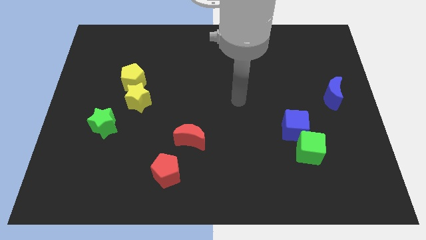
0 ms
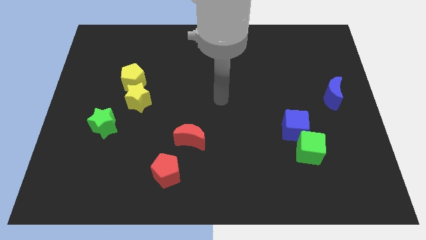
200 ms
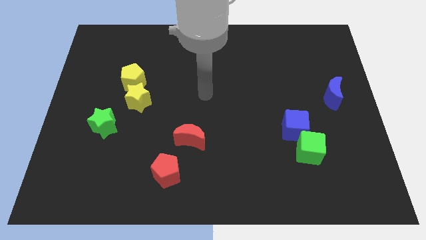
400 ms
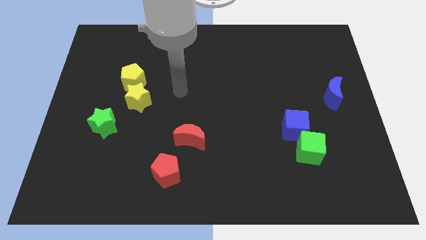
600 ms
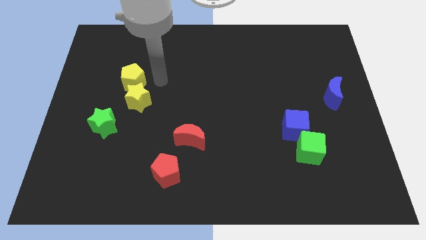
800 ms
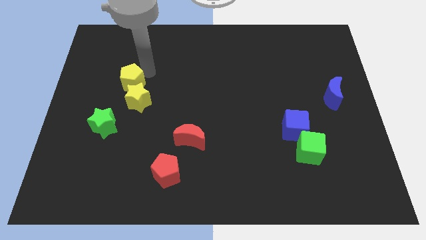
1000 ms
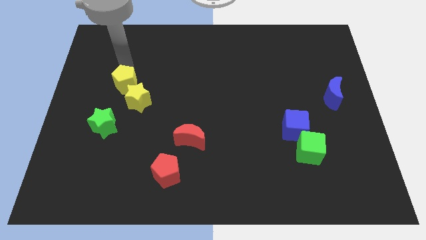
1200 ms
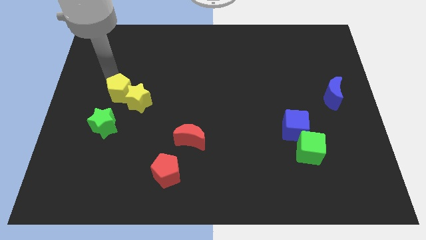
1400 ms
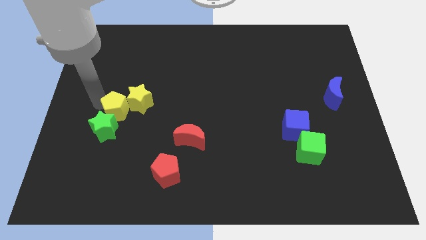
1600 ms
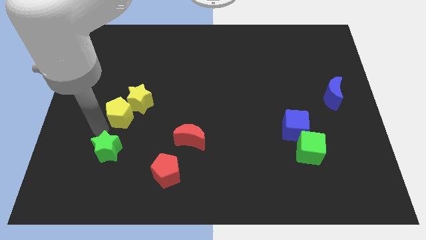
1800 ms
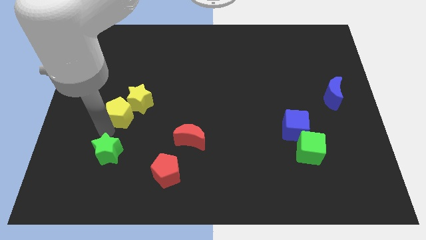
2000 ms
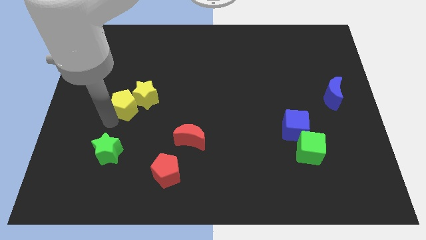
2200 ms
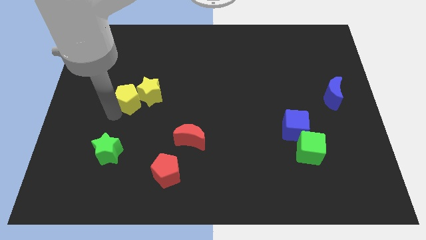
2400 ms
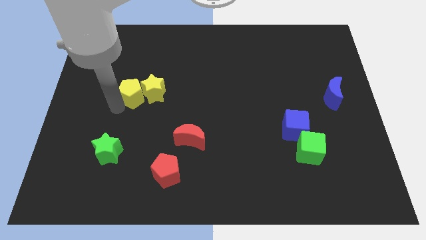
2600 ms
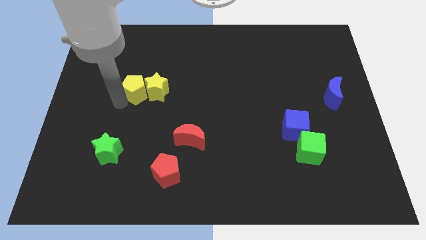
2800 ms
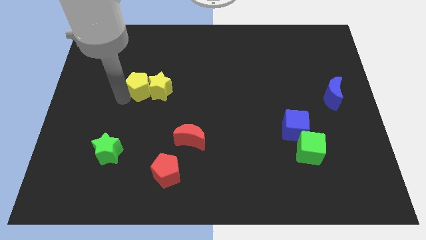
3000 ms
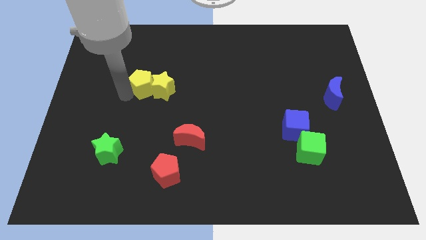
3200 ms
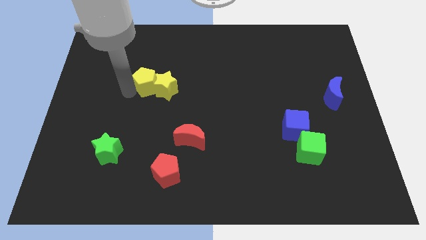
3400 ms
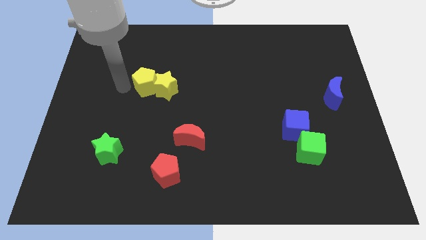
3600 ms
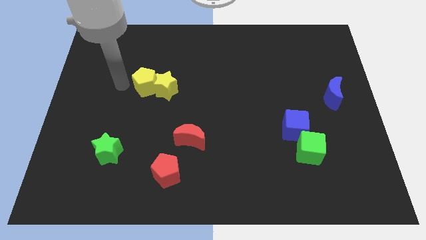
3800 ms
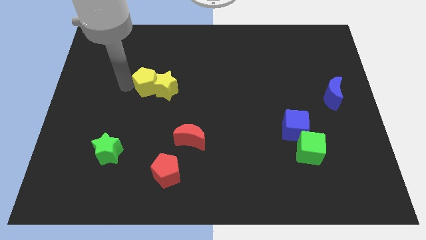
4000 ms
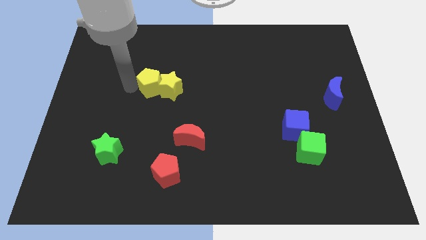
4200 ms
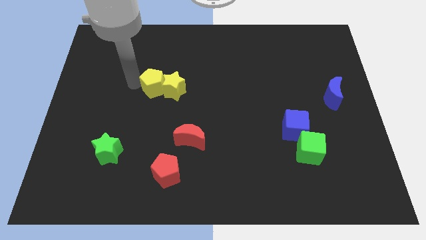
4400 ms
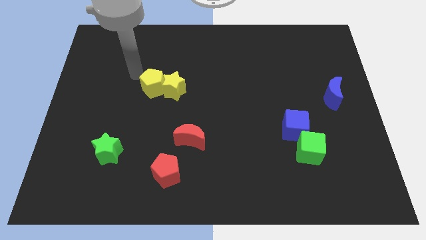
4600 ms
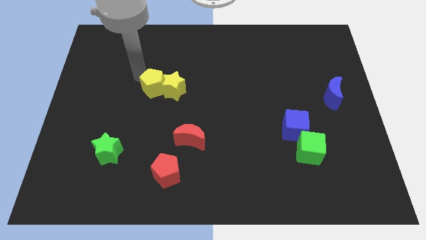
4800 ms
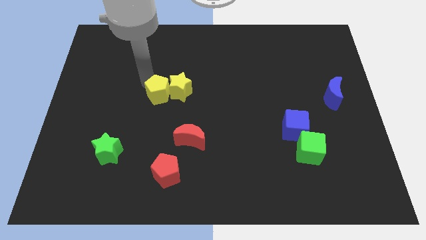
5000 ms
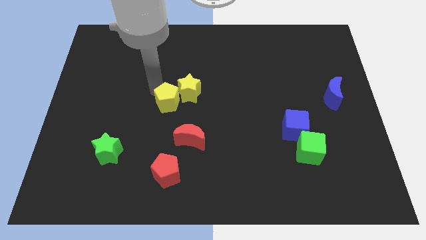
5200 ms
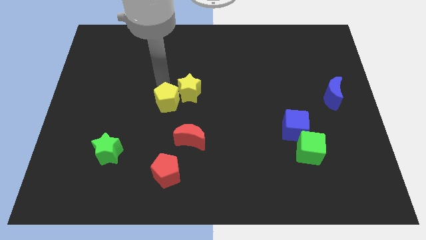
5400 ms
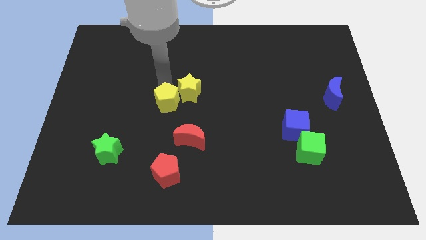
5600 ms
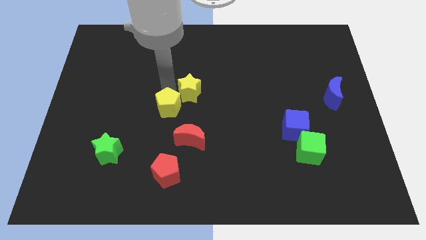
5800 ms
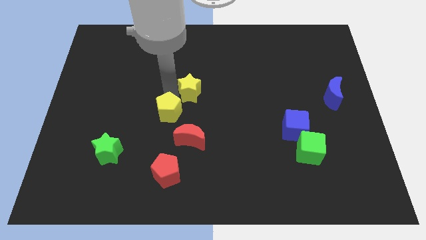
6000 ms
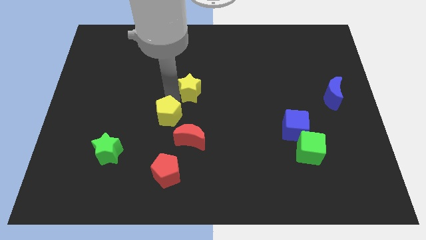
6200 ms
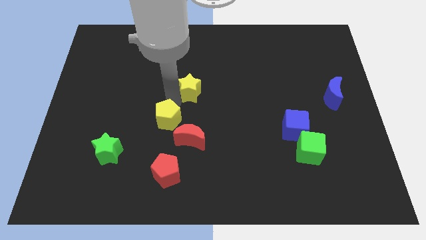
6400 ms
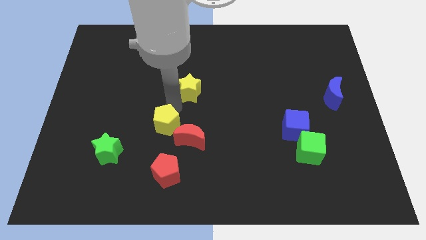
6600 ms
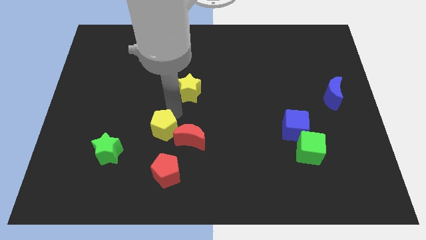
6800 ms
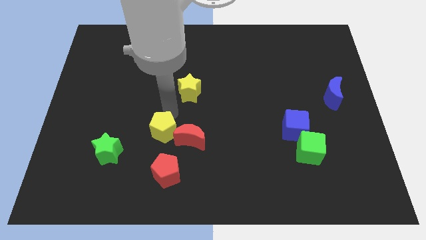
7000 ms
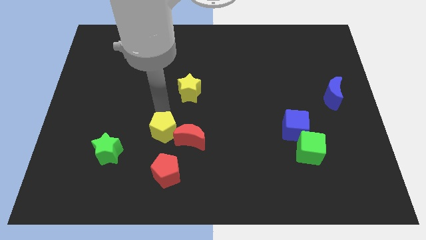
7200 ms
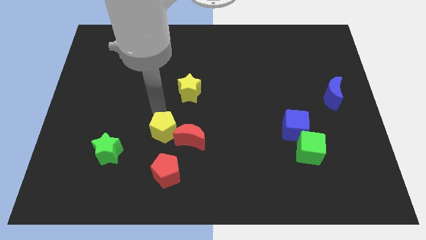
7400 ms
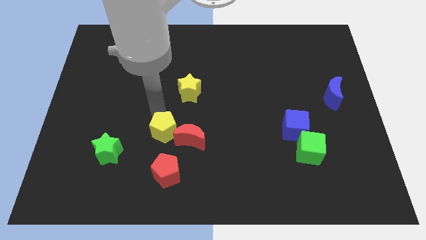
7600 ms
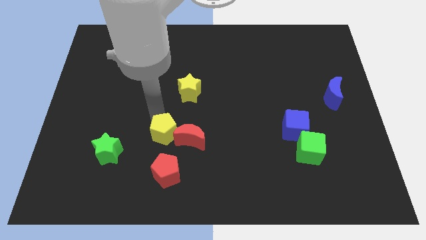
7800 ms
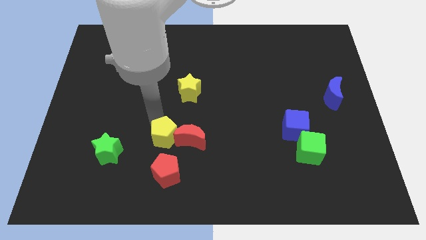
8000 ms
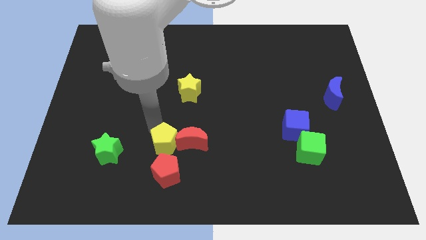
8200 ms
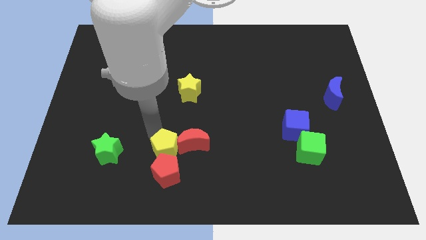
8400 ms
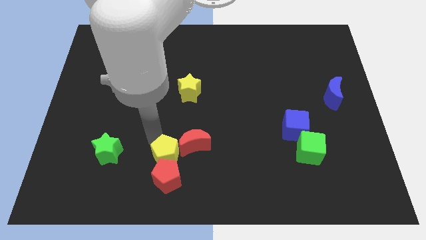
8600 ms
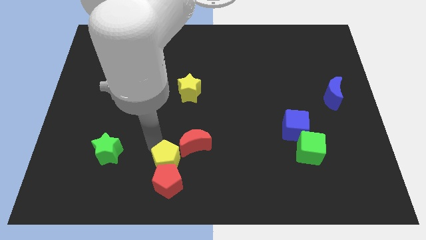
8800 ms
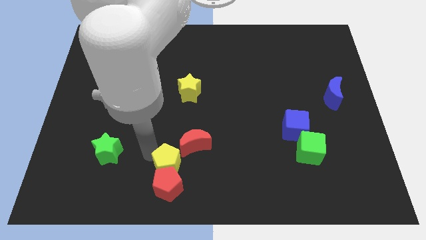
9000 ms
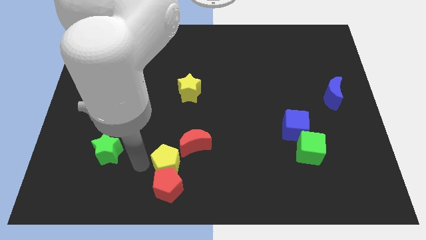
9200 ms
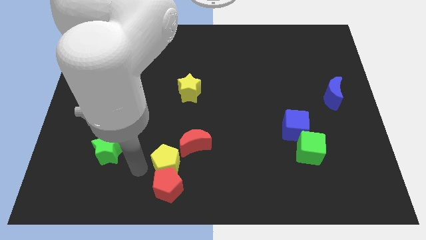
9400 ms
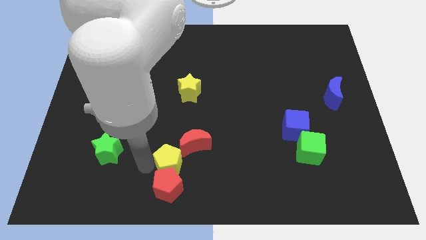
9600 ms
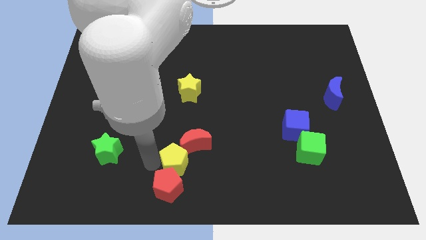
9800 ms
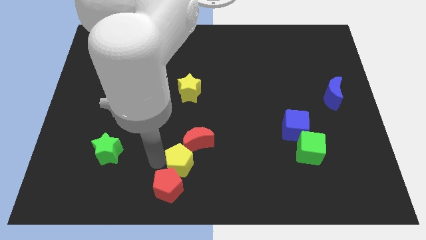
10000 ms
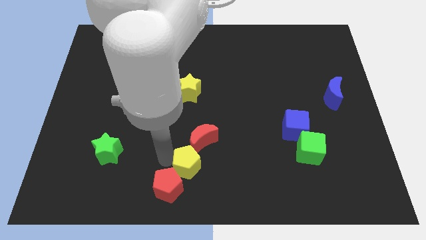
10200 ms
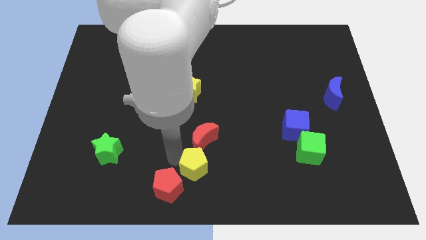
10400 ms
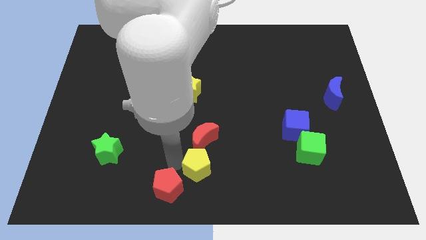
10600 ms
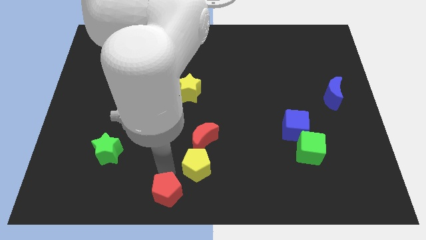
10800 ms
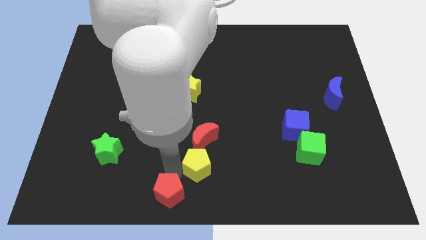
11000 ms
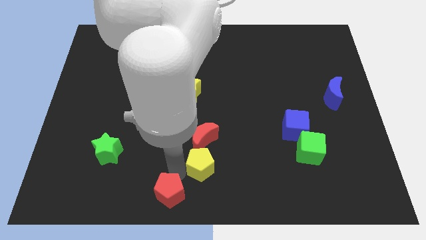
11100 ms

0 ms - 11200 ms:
slide the yellow pentagon diagonally down and to the right of the red moon

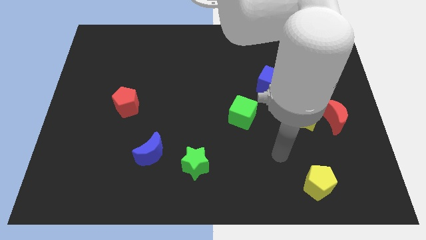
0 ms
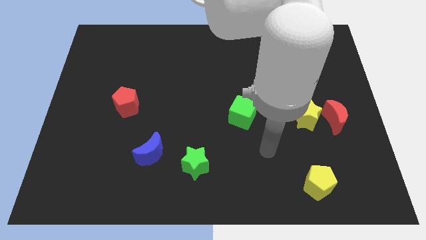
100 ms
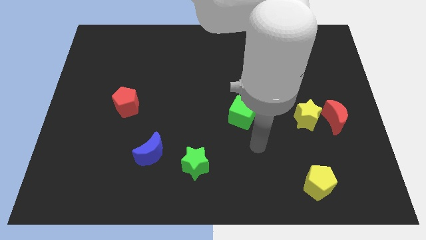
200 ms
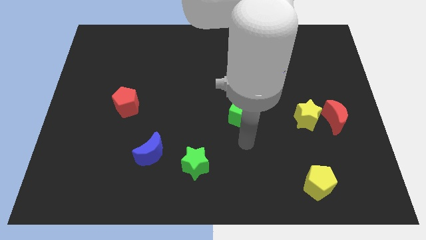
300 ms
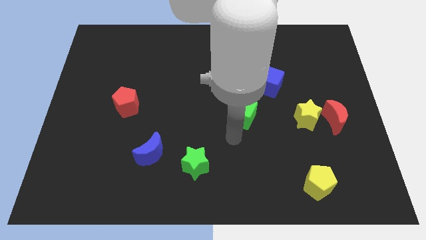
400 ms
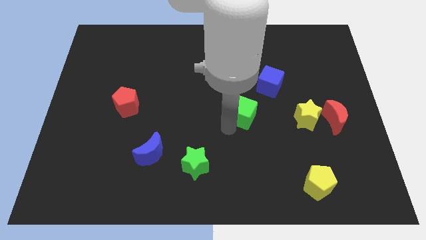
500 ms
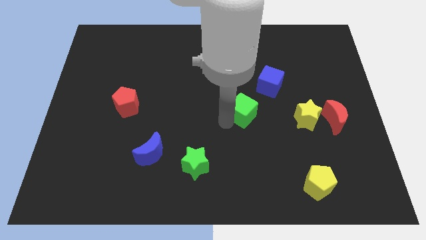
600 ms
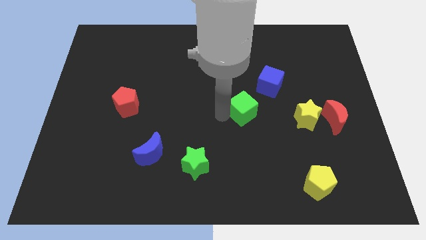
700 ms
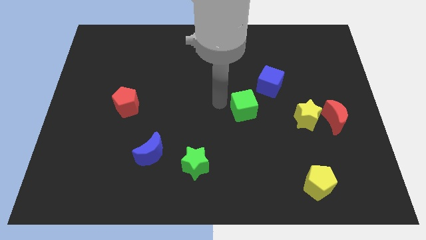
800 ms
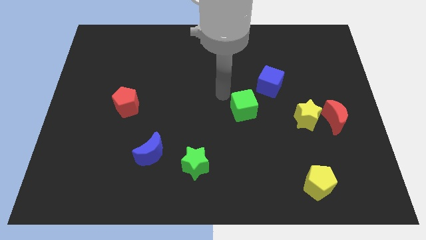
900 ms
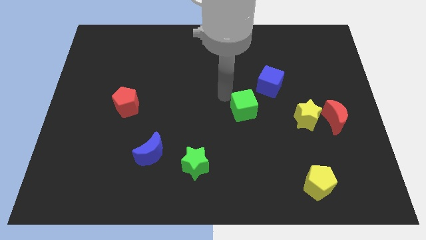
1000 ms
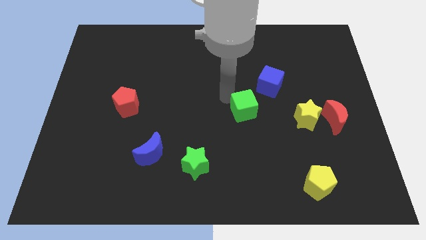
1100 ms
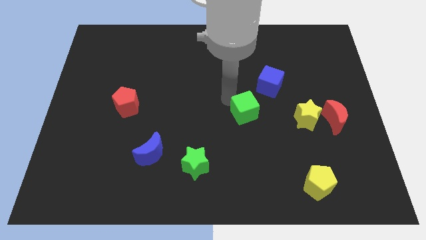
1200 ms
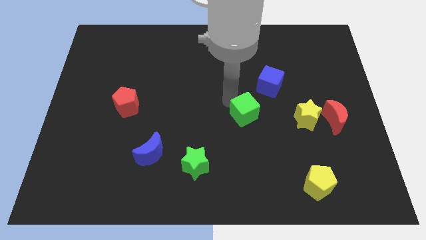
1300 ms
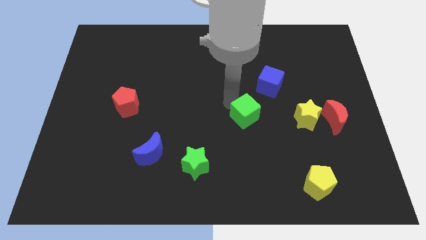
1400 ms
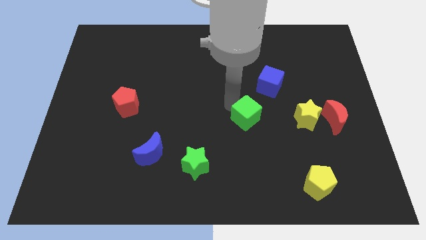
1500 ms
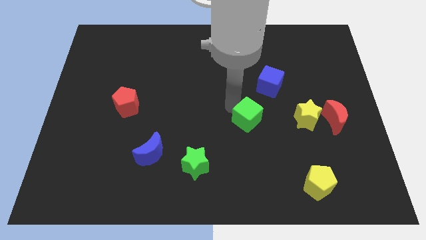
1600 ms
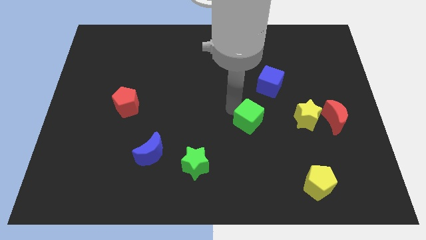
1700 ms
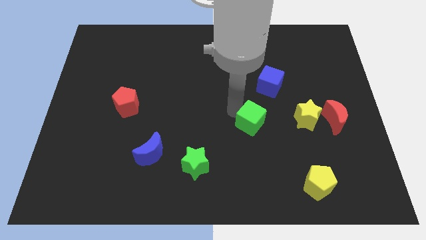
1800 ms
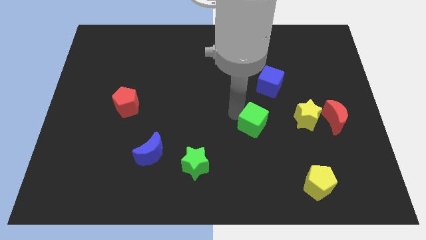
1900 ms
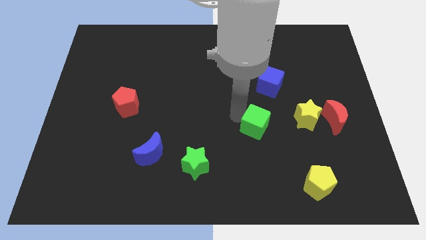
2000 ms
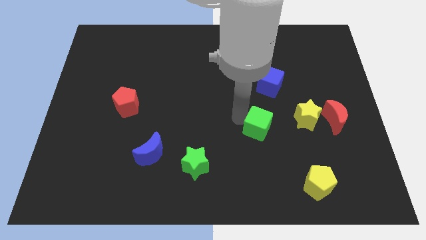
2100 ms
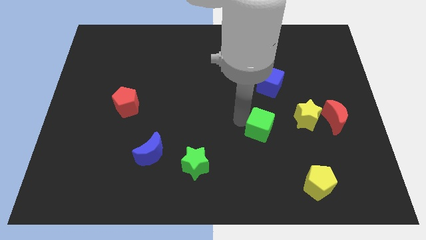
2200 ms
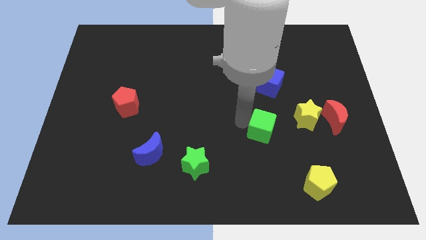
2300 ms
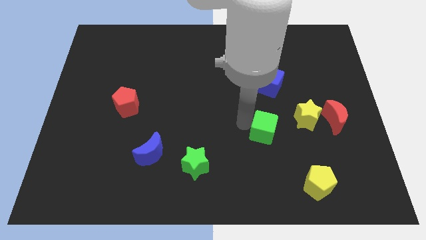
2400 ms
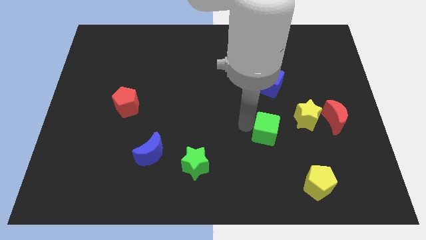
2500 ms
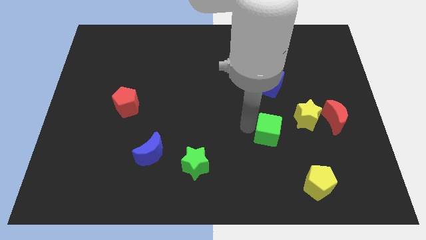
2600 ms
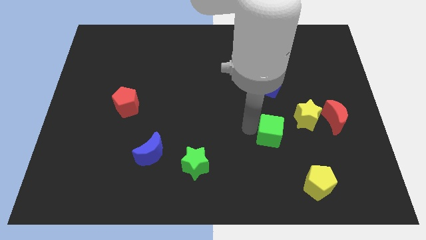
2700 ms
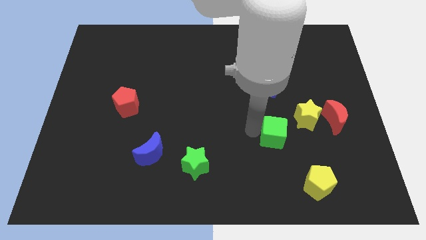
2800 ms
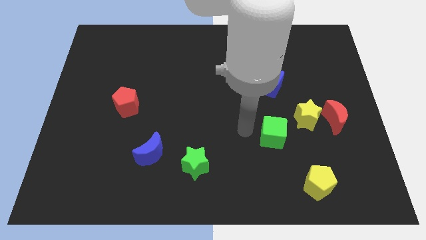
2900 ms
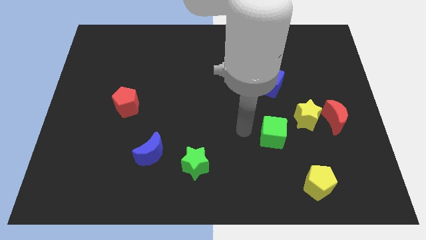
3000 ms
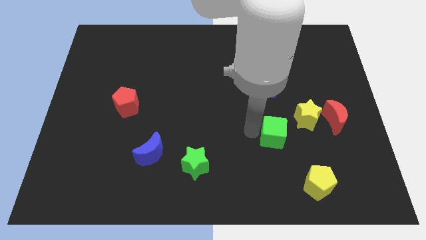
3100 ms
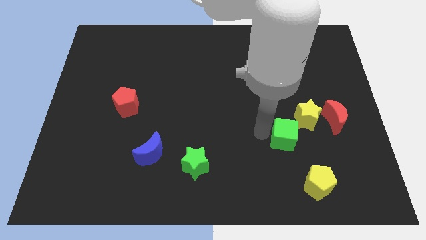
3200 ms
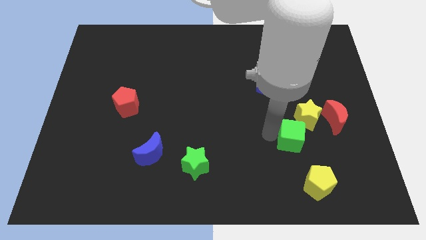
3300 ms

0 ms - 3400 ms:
put the green cube to the top side of the yellow pentagon
